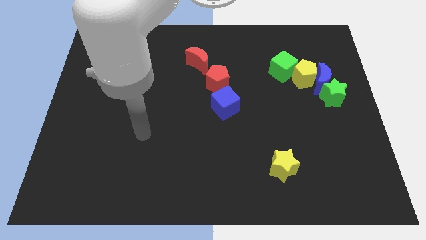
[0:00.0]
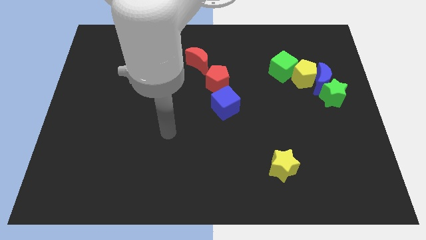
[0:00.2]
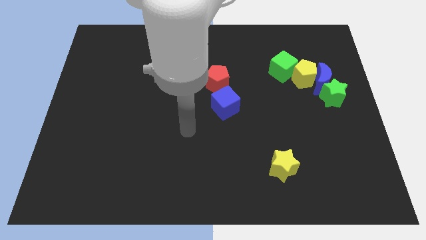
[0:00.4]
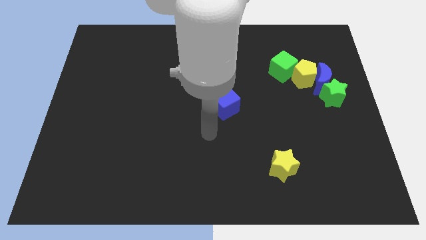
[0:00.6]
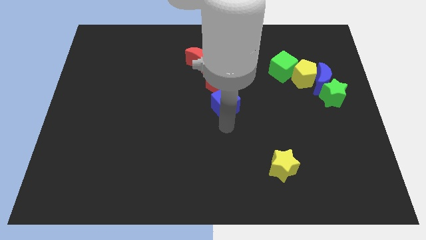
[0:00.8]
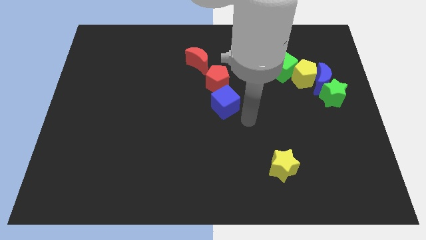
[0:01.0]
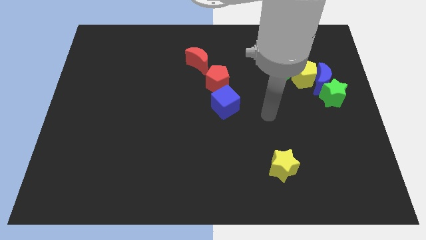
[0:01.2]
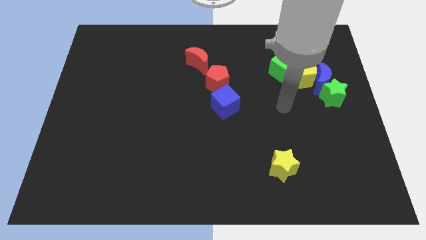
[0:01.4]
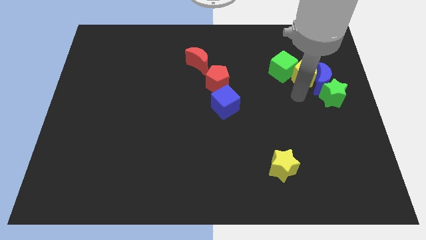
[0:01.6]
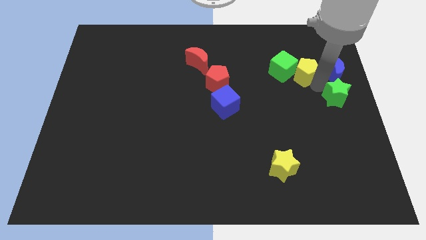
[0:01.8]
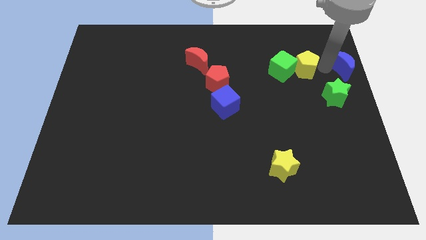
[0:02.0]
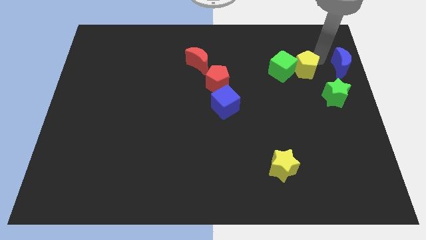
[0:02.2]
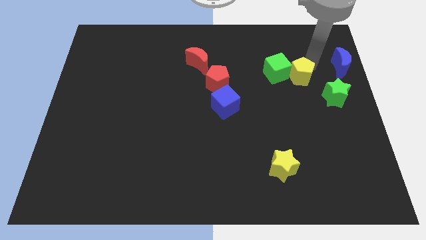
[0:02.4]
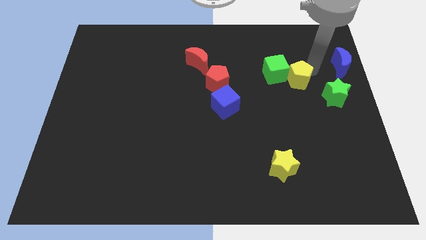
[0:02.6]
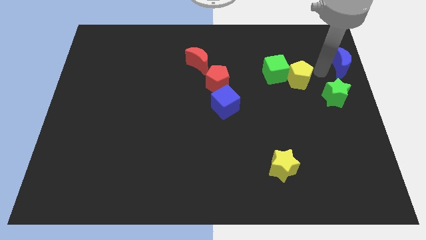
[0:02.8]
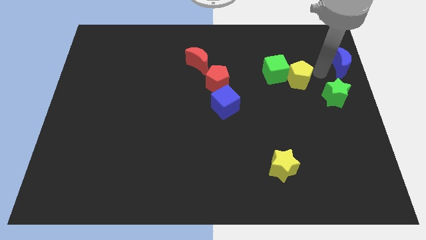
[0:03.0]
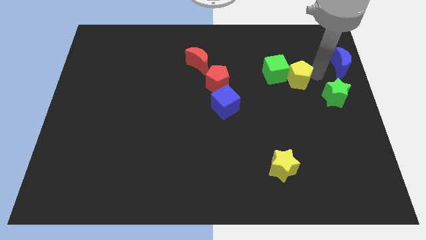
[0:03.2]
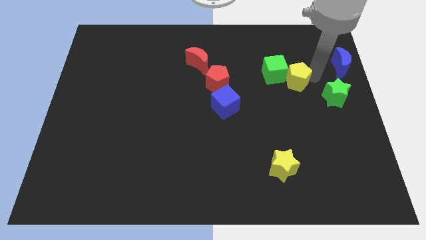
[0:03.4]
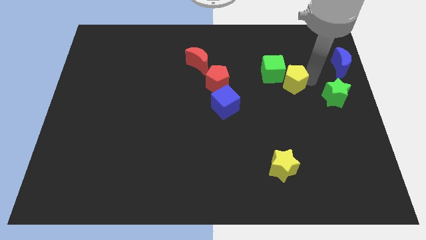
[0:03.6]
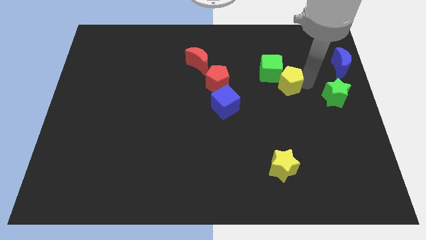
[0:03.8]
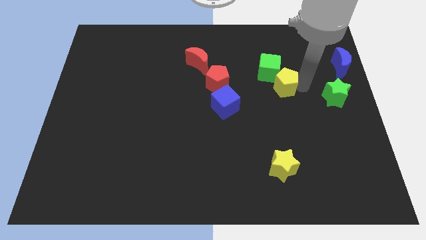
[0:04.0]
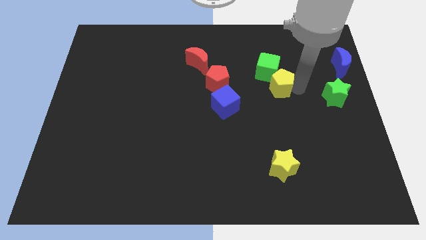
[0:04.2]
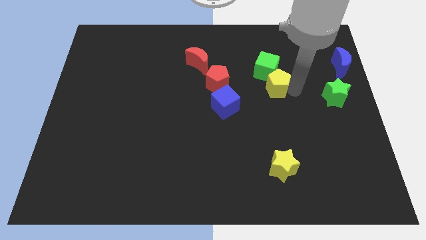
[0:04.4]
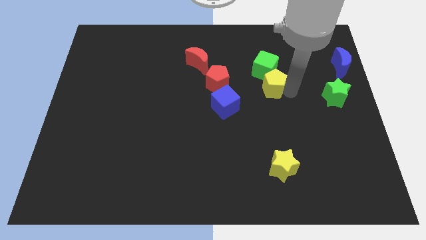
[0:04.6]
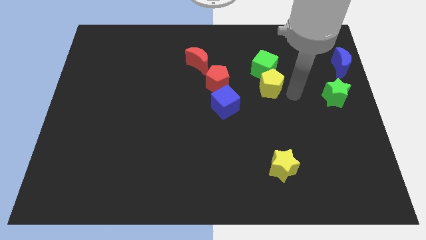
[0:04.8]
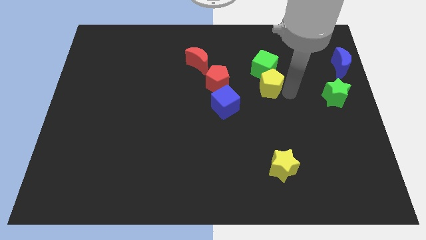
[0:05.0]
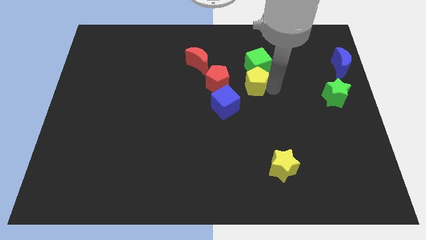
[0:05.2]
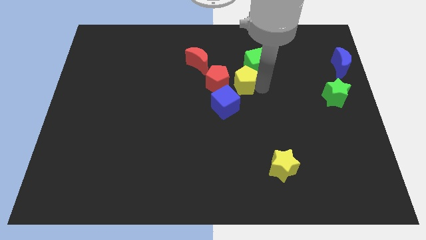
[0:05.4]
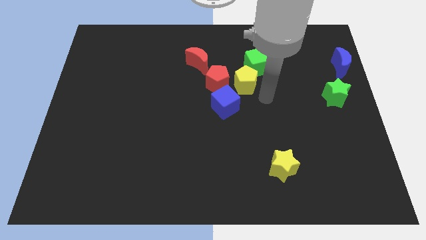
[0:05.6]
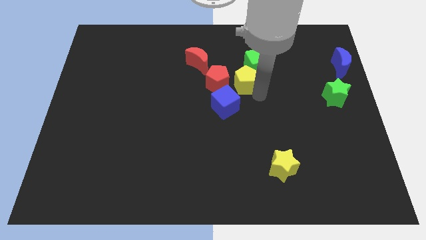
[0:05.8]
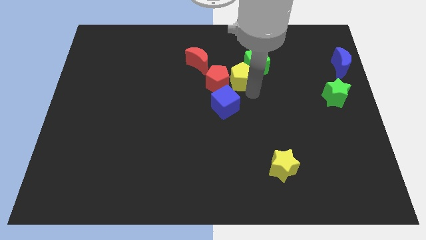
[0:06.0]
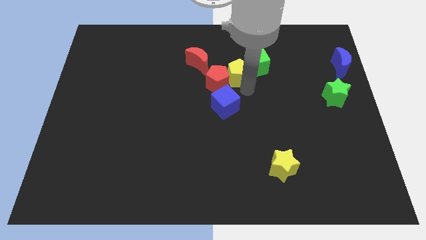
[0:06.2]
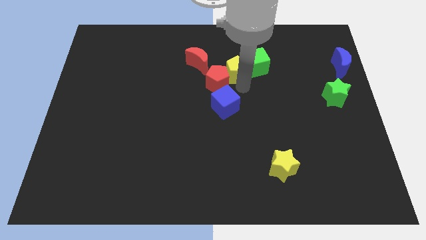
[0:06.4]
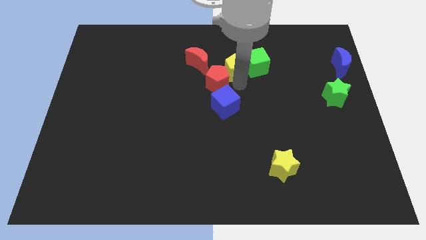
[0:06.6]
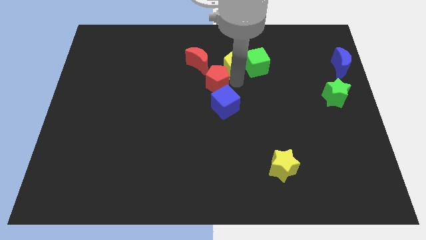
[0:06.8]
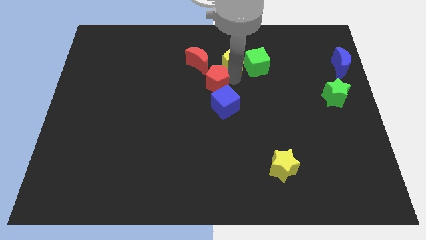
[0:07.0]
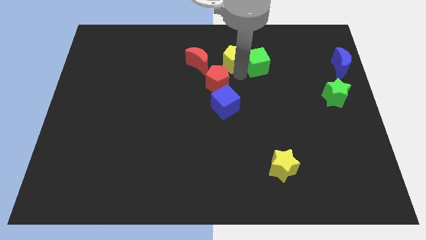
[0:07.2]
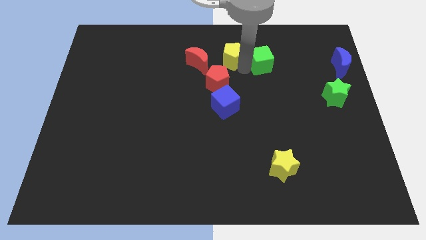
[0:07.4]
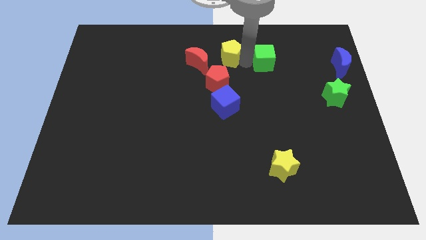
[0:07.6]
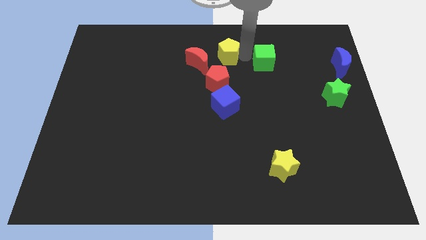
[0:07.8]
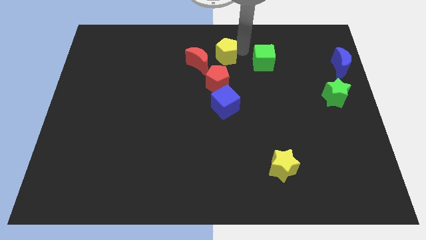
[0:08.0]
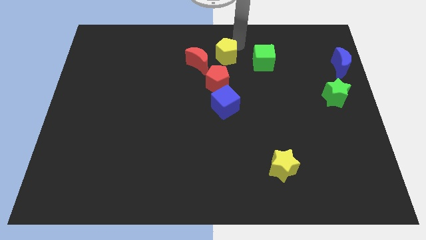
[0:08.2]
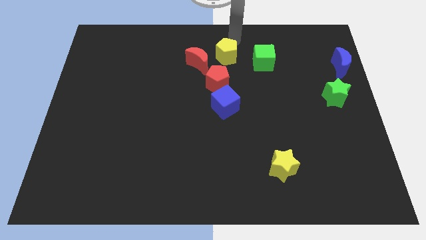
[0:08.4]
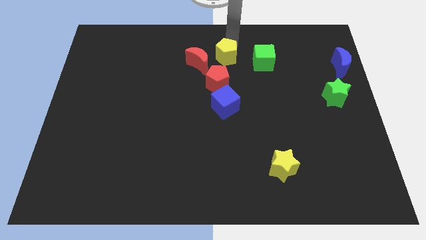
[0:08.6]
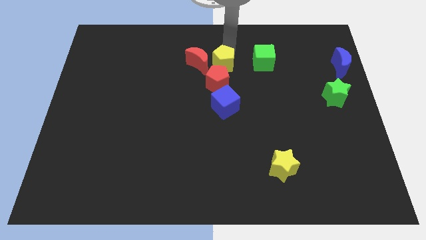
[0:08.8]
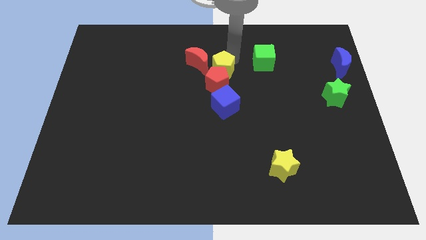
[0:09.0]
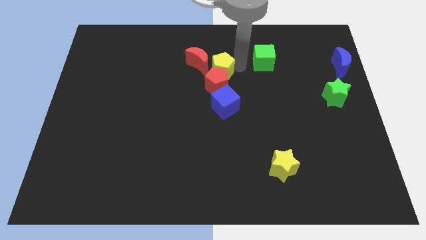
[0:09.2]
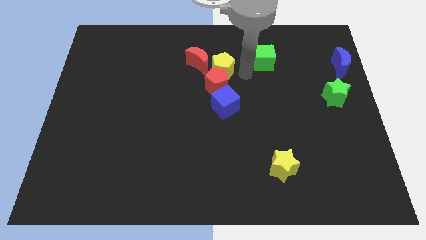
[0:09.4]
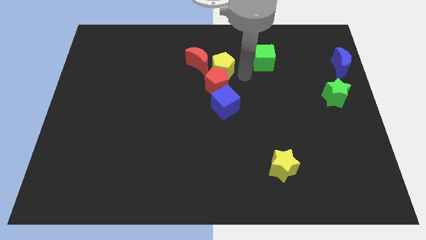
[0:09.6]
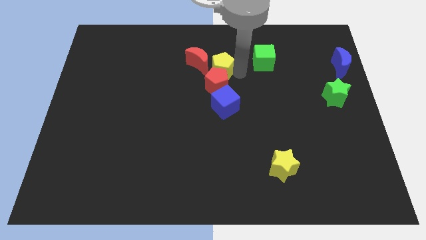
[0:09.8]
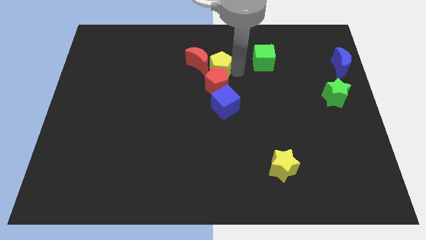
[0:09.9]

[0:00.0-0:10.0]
put the yellow pentagon next to the red moon

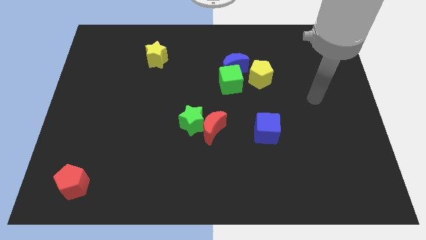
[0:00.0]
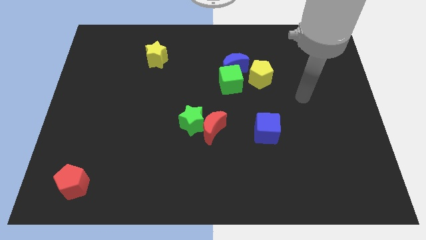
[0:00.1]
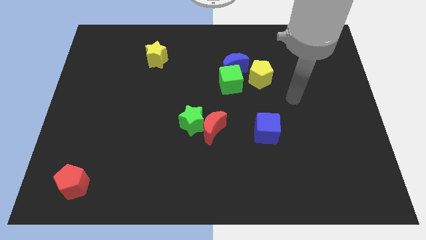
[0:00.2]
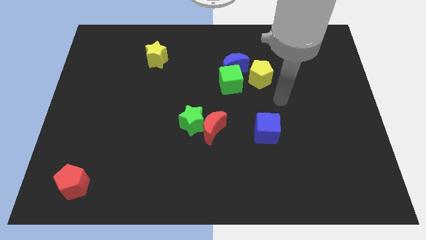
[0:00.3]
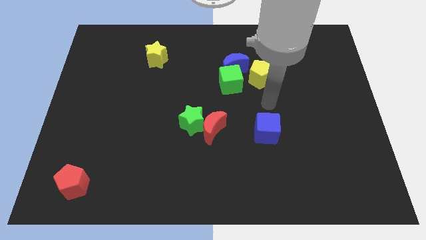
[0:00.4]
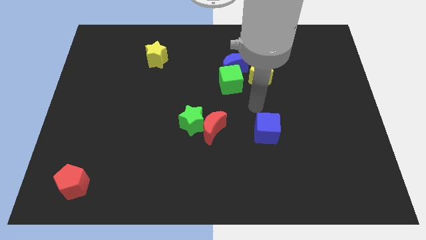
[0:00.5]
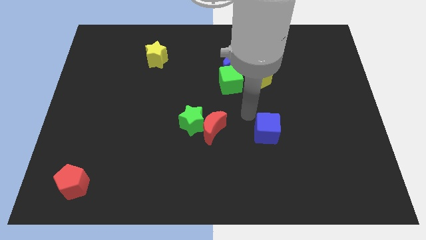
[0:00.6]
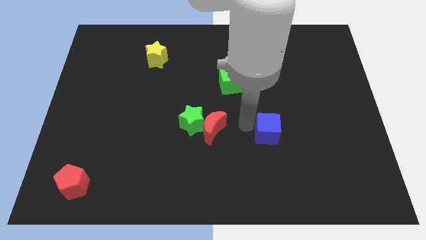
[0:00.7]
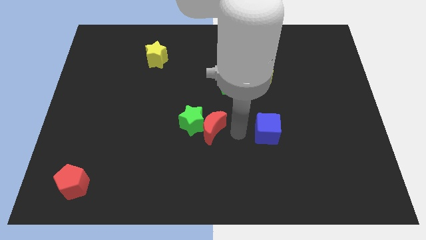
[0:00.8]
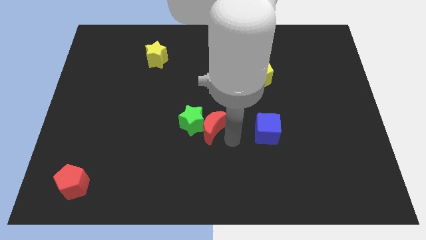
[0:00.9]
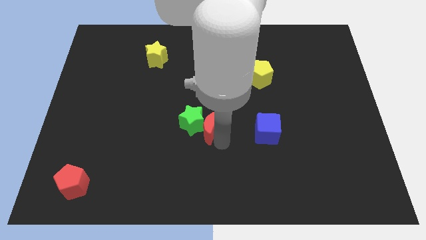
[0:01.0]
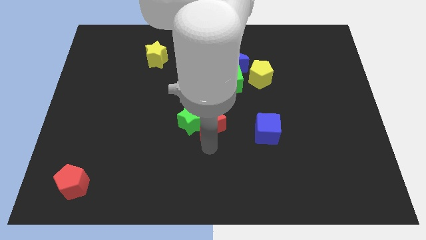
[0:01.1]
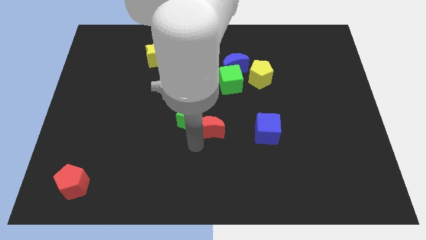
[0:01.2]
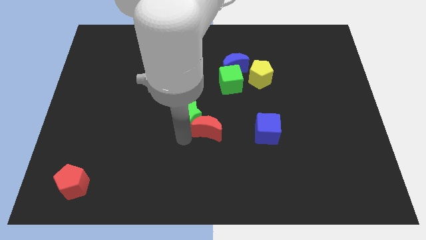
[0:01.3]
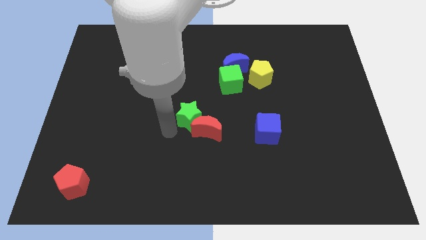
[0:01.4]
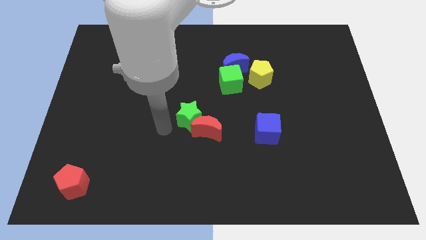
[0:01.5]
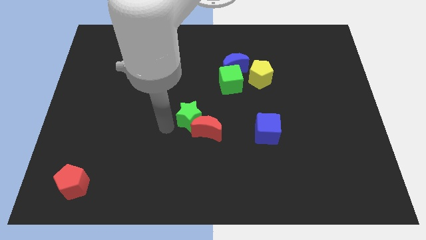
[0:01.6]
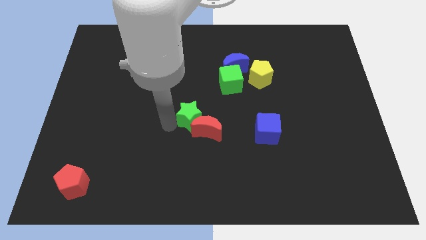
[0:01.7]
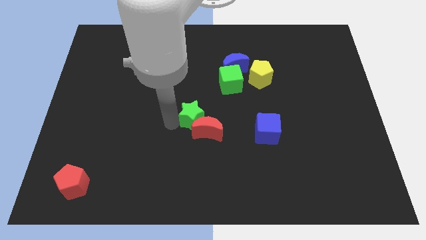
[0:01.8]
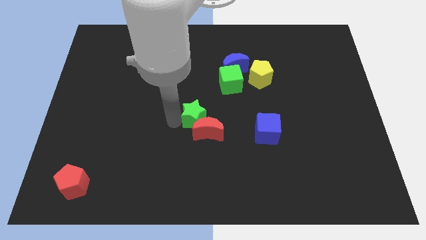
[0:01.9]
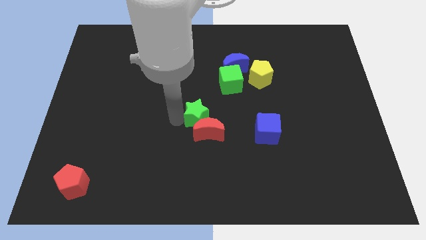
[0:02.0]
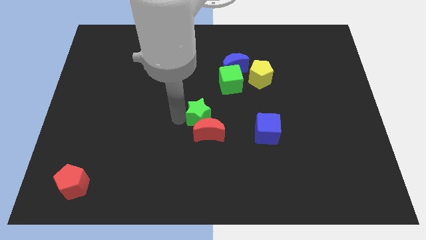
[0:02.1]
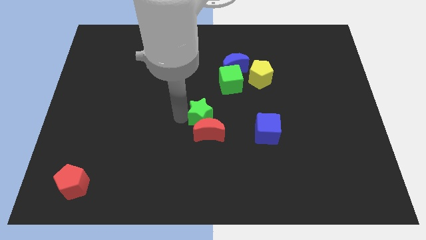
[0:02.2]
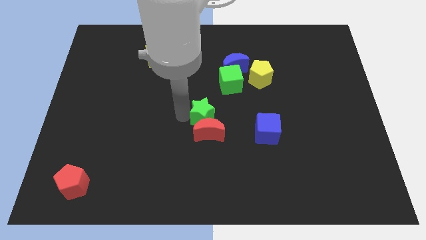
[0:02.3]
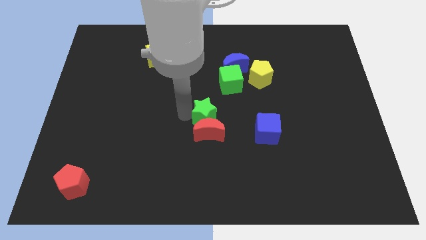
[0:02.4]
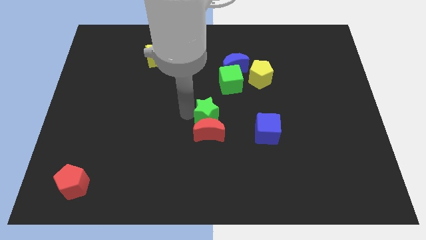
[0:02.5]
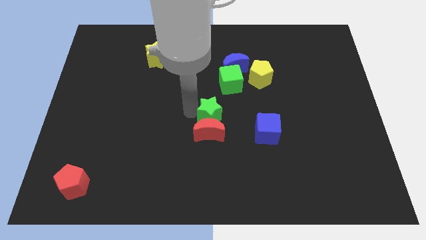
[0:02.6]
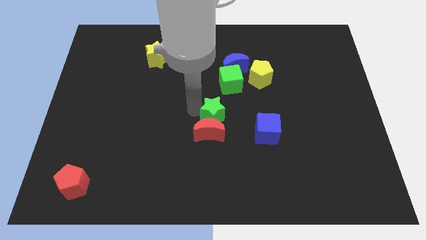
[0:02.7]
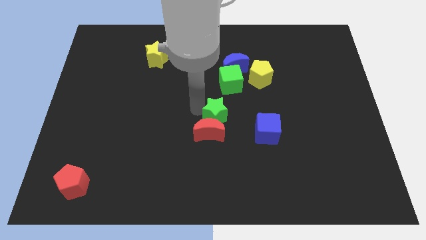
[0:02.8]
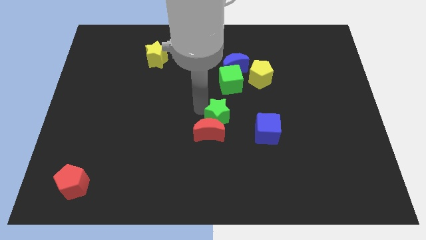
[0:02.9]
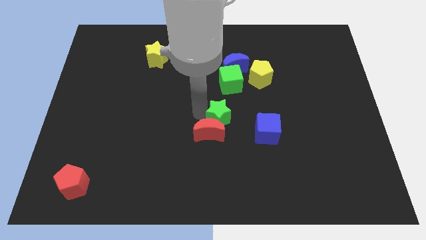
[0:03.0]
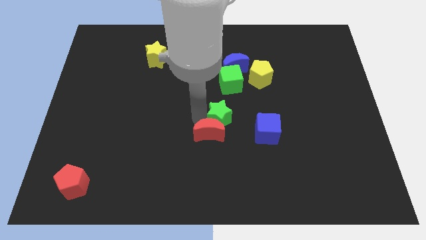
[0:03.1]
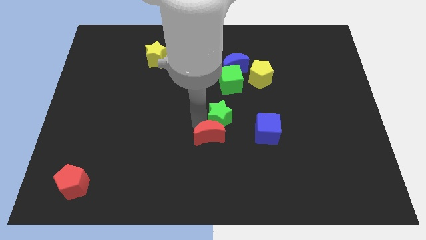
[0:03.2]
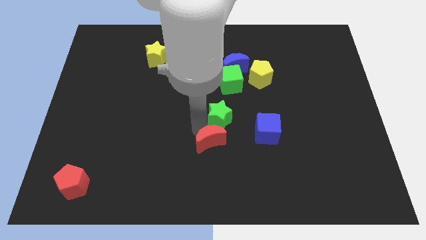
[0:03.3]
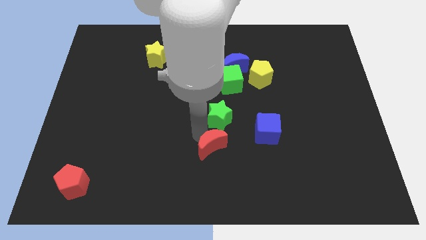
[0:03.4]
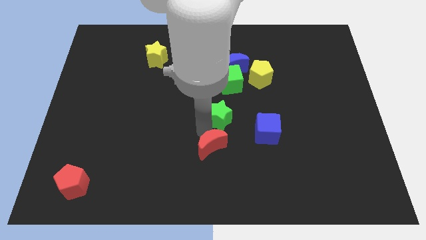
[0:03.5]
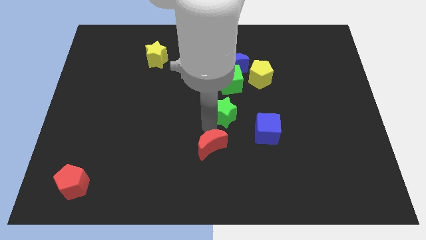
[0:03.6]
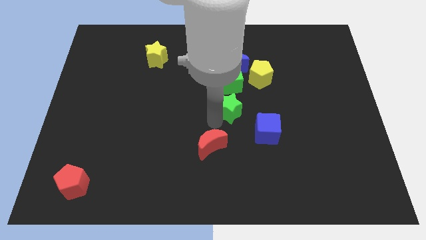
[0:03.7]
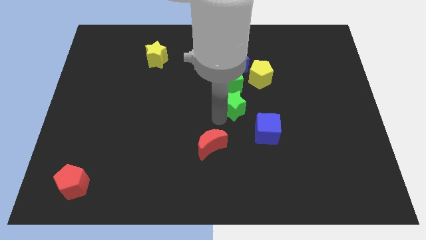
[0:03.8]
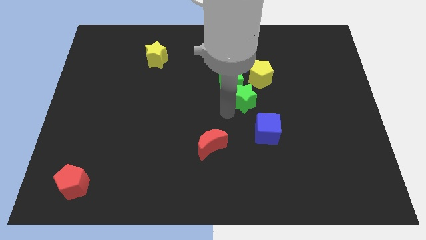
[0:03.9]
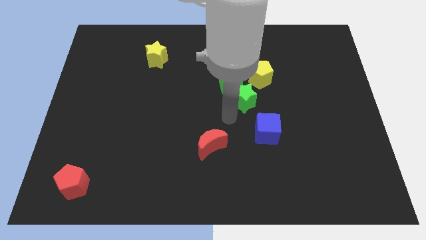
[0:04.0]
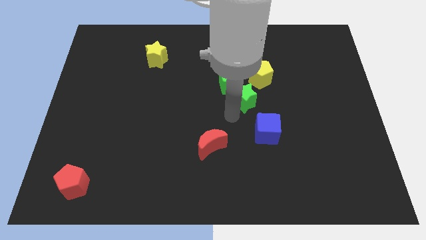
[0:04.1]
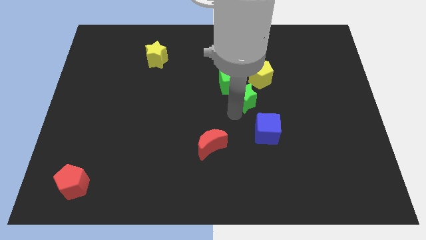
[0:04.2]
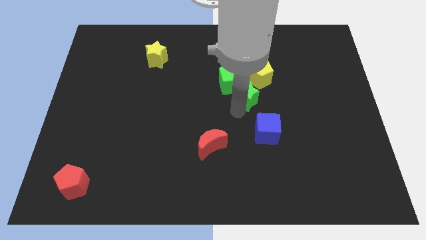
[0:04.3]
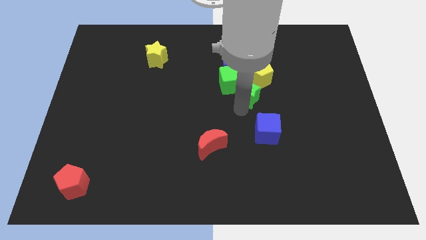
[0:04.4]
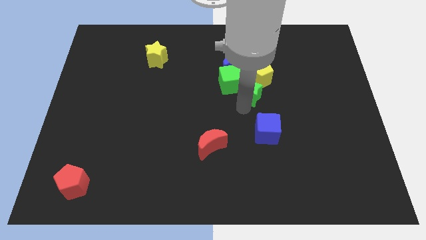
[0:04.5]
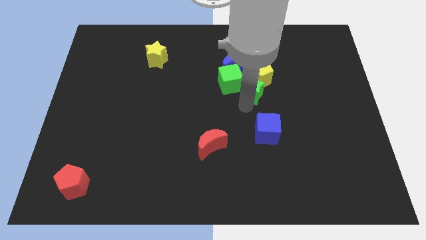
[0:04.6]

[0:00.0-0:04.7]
push the green star towards the yellow pentagon
